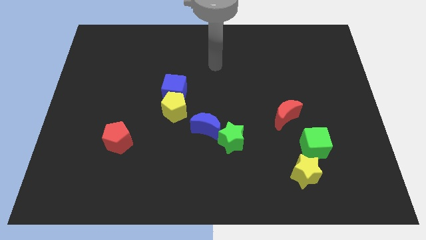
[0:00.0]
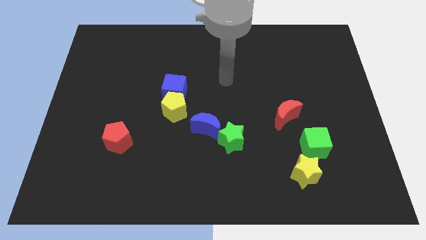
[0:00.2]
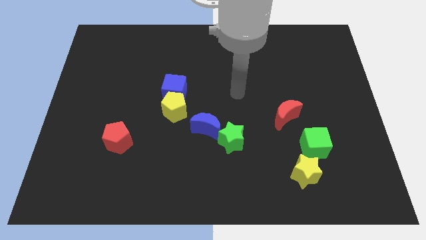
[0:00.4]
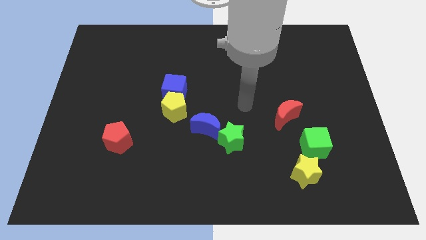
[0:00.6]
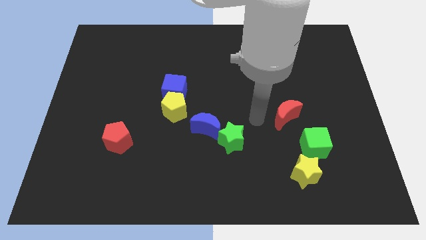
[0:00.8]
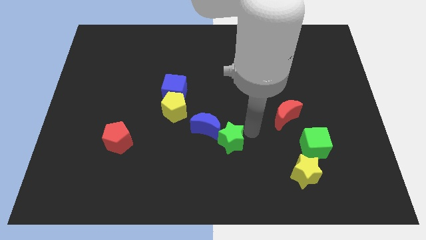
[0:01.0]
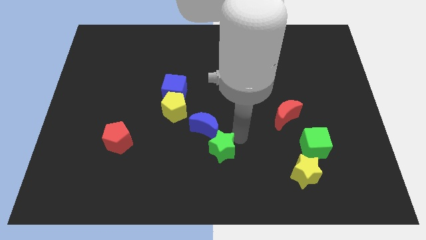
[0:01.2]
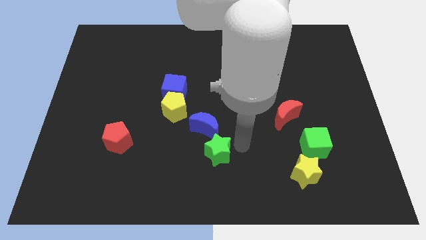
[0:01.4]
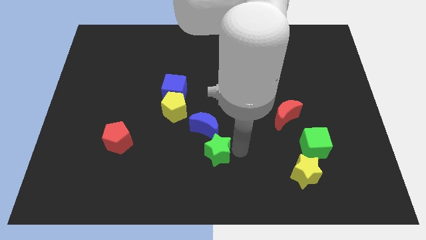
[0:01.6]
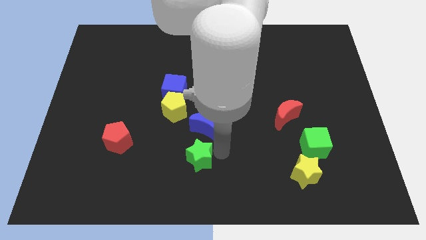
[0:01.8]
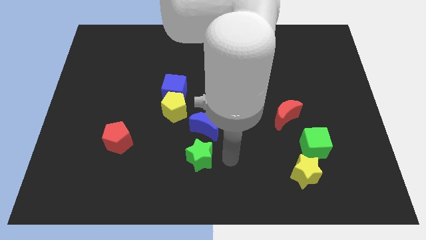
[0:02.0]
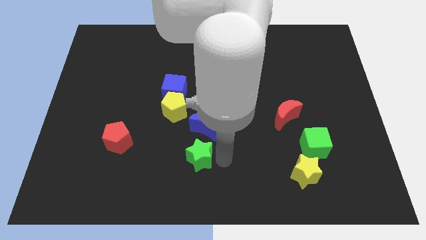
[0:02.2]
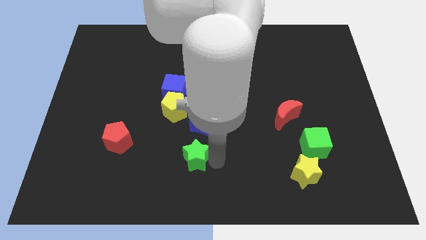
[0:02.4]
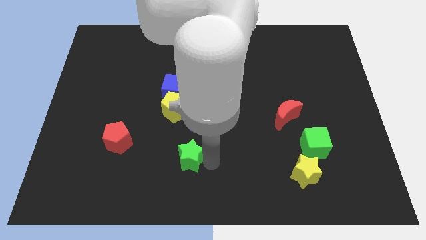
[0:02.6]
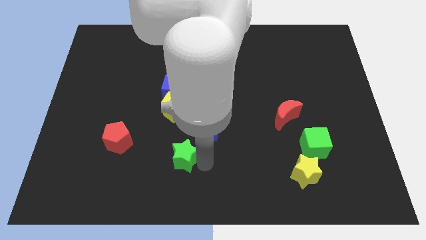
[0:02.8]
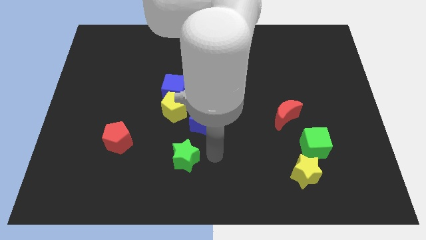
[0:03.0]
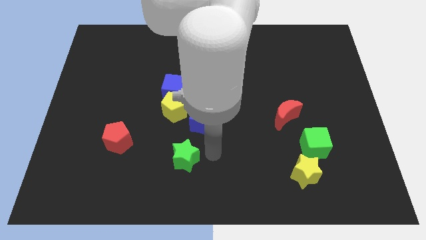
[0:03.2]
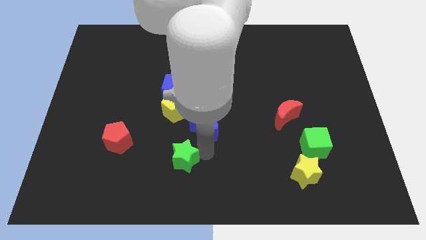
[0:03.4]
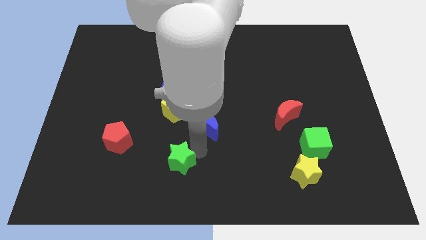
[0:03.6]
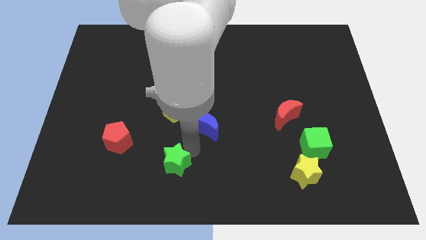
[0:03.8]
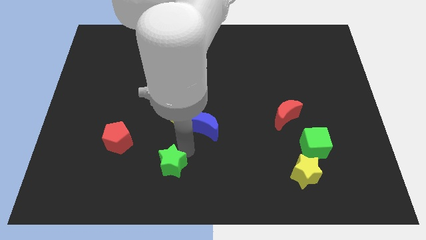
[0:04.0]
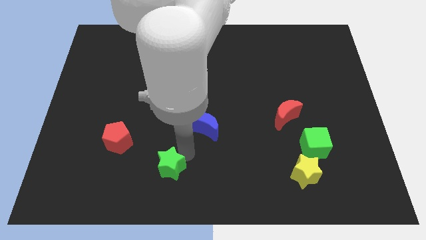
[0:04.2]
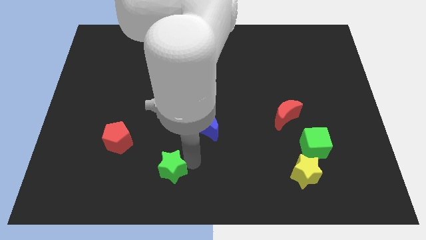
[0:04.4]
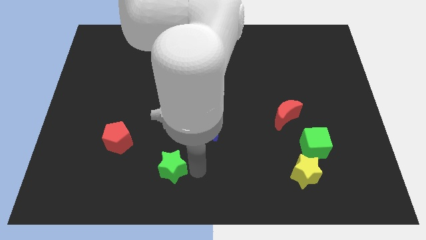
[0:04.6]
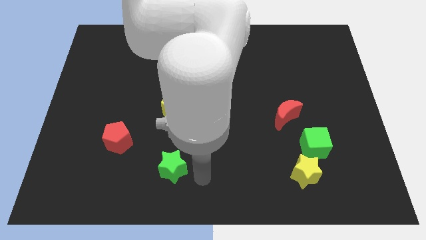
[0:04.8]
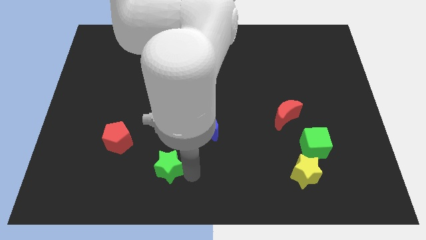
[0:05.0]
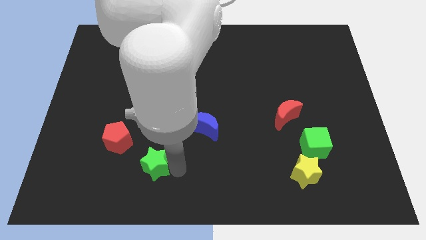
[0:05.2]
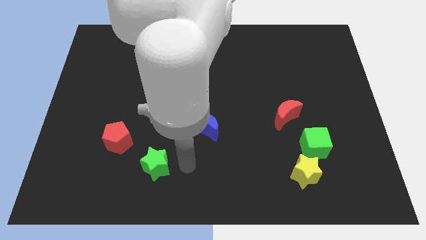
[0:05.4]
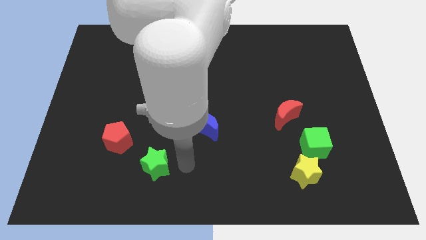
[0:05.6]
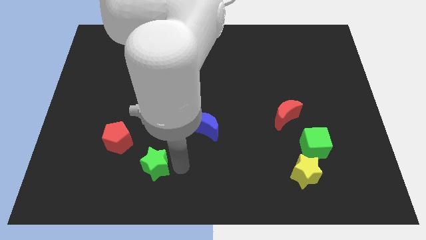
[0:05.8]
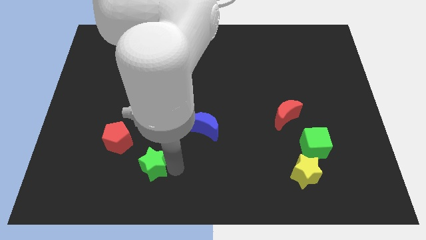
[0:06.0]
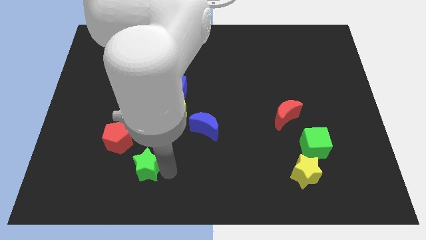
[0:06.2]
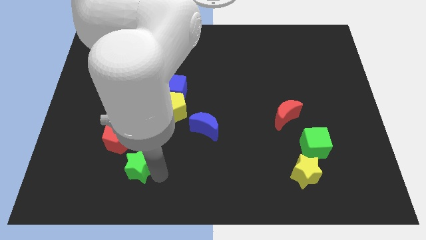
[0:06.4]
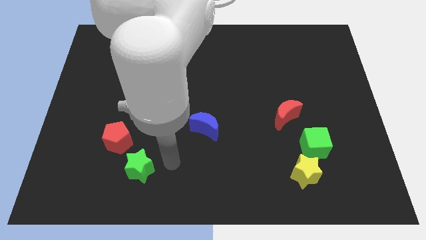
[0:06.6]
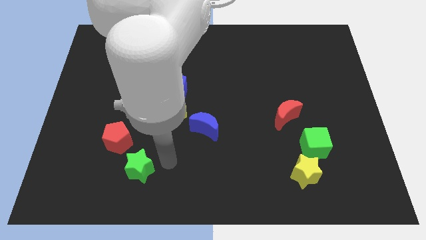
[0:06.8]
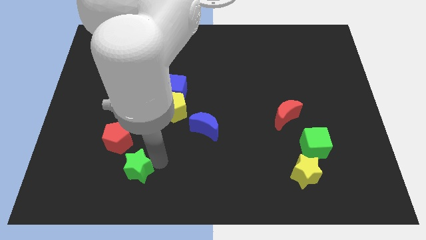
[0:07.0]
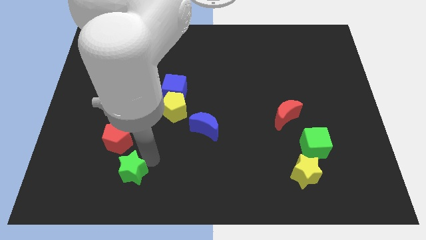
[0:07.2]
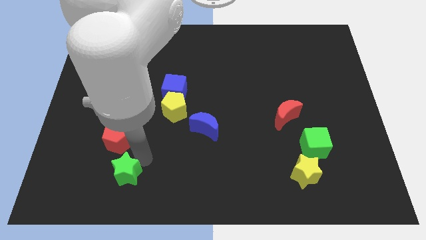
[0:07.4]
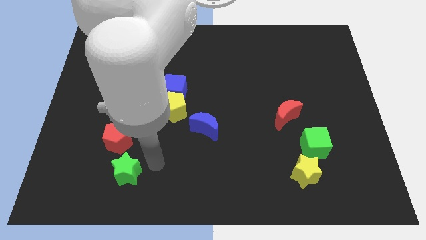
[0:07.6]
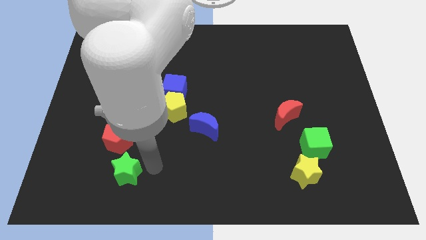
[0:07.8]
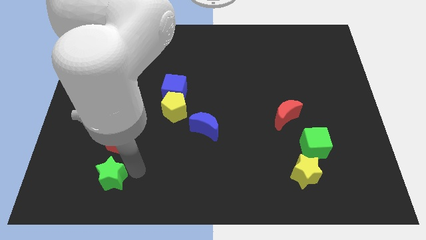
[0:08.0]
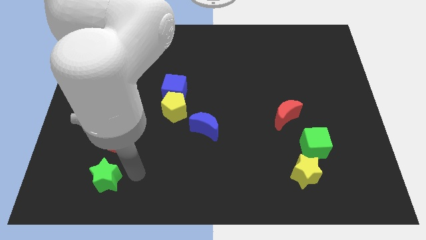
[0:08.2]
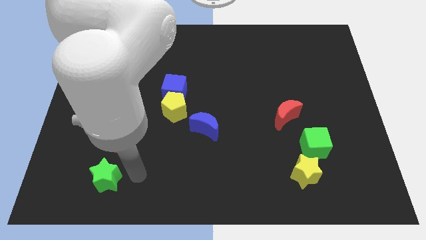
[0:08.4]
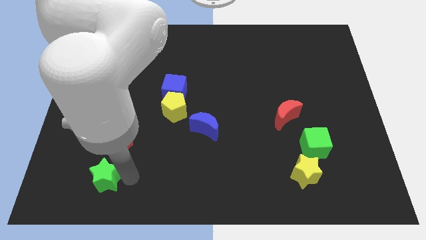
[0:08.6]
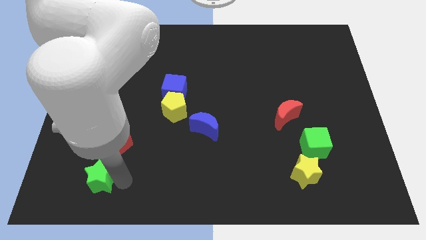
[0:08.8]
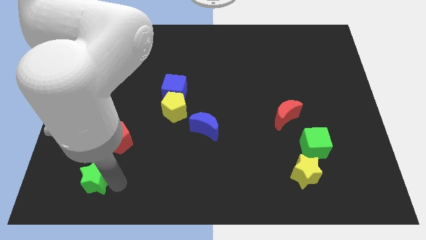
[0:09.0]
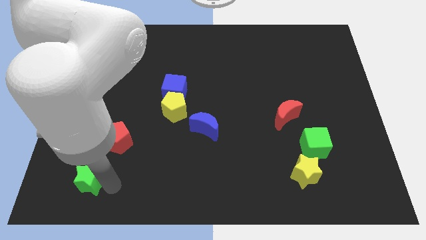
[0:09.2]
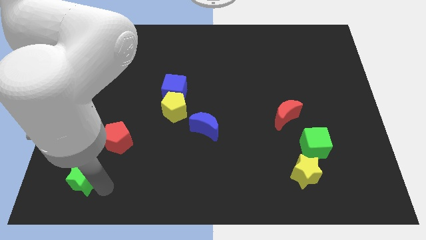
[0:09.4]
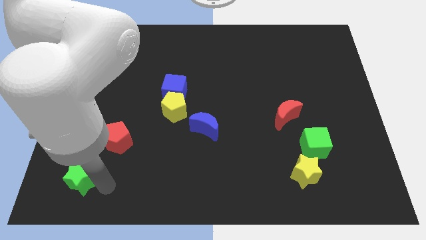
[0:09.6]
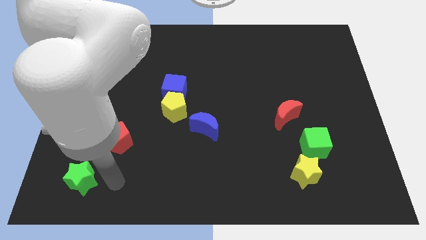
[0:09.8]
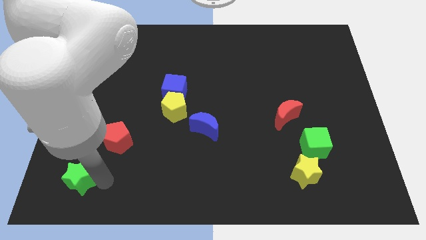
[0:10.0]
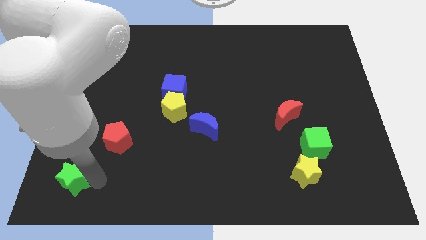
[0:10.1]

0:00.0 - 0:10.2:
slide the green star to the bottom left corner

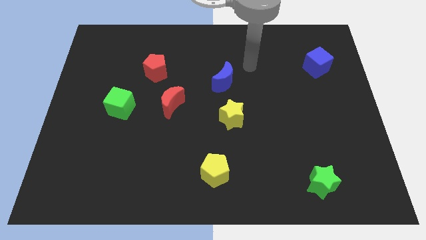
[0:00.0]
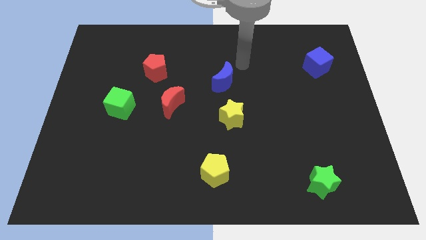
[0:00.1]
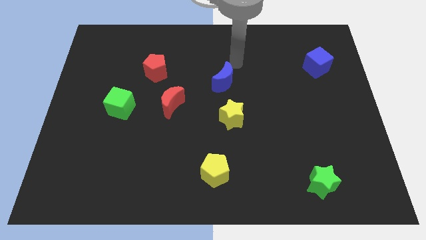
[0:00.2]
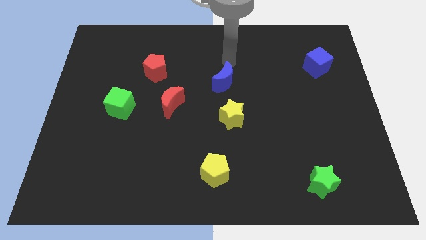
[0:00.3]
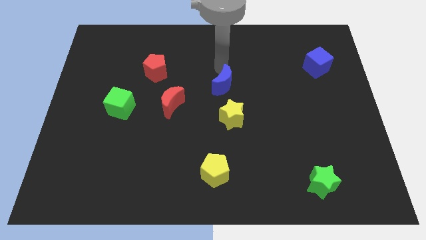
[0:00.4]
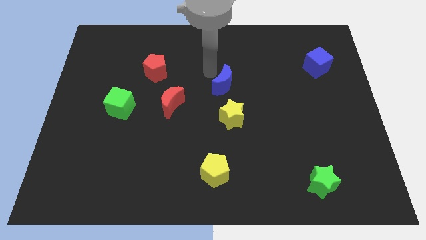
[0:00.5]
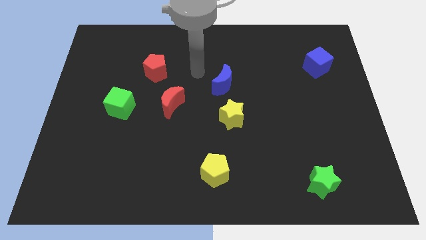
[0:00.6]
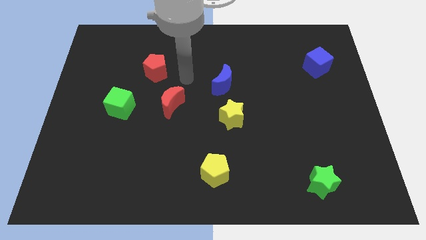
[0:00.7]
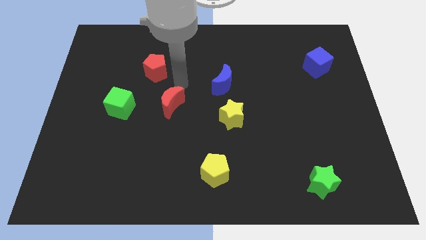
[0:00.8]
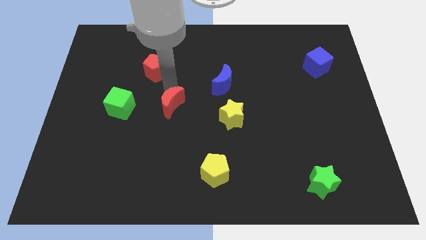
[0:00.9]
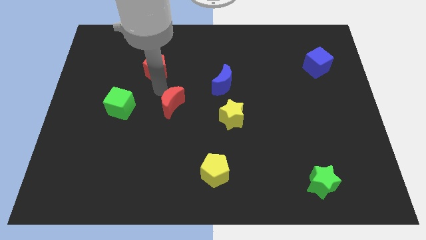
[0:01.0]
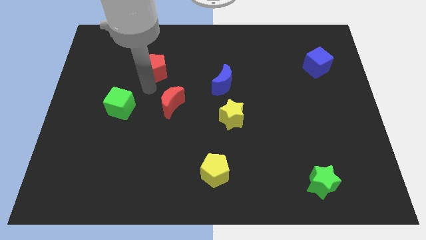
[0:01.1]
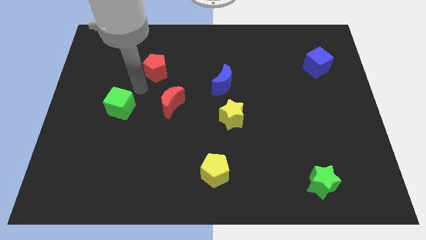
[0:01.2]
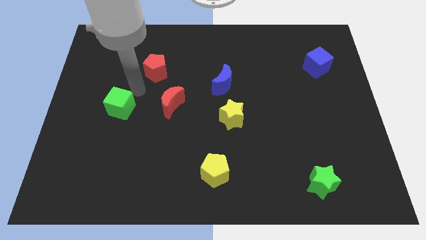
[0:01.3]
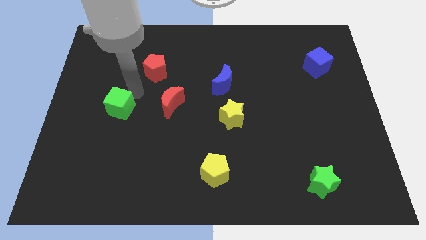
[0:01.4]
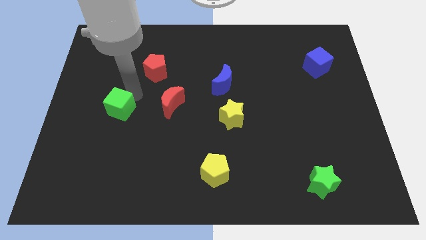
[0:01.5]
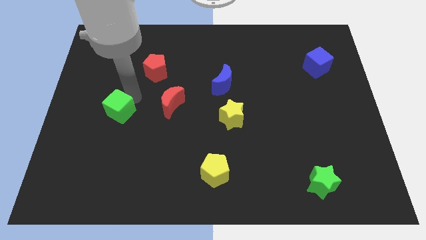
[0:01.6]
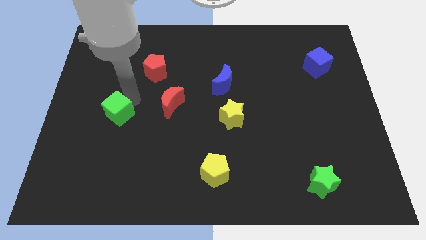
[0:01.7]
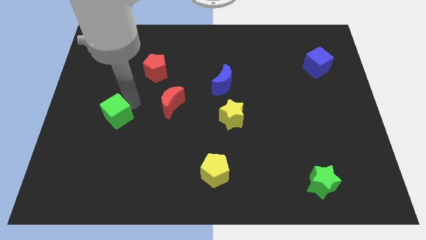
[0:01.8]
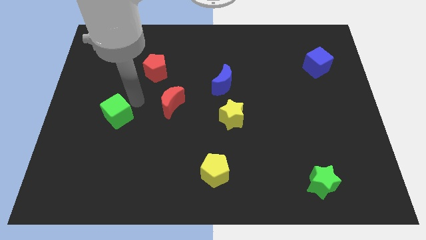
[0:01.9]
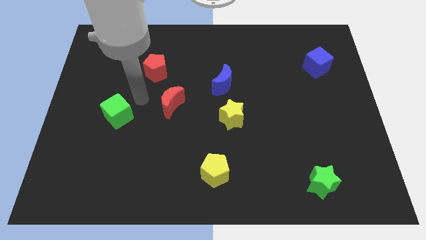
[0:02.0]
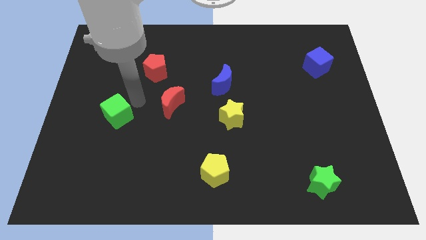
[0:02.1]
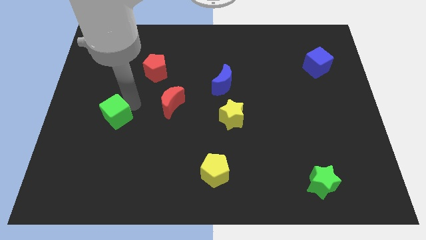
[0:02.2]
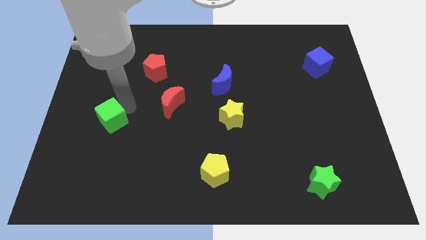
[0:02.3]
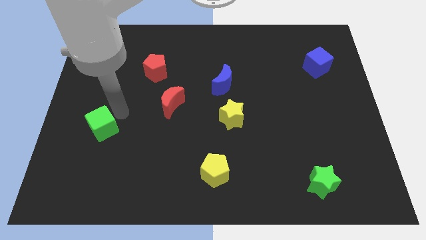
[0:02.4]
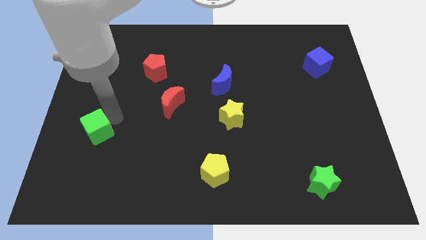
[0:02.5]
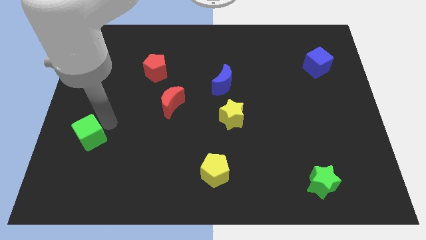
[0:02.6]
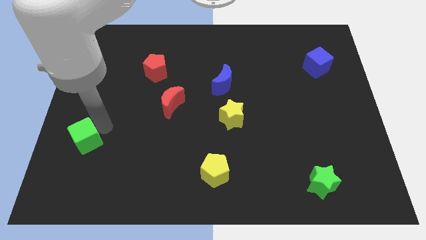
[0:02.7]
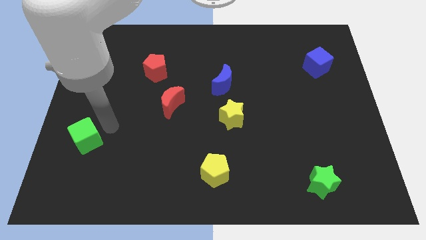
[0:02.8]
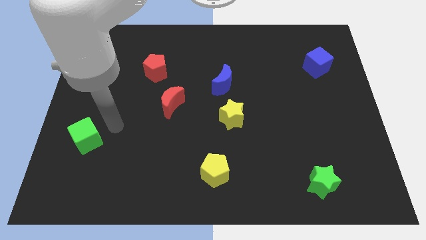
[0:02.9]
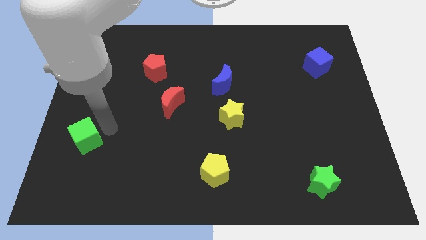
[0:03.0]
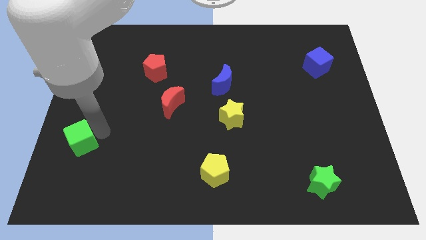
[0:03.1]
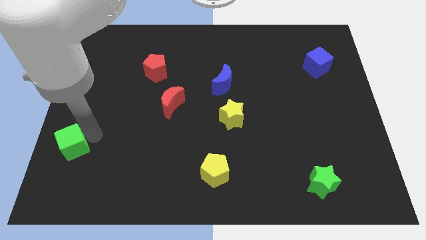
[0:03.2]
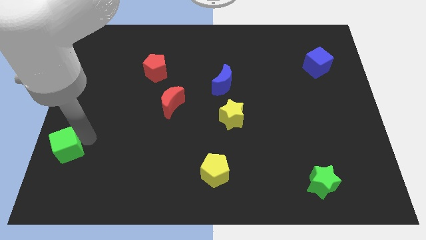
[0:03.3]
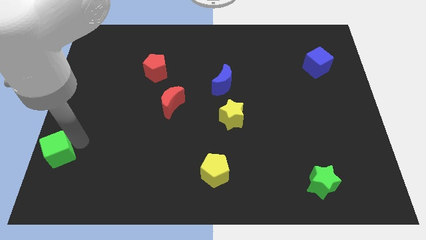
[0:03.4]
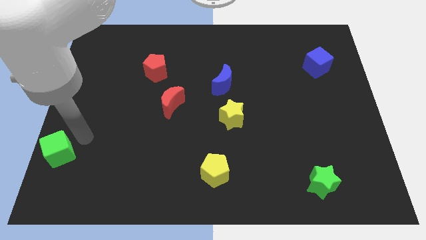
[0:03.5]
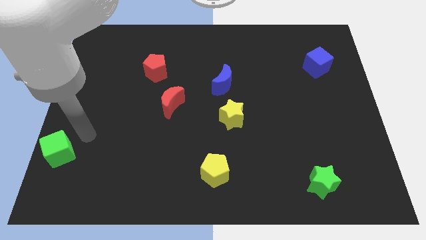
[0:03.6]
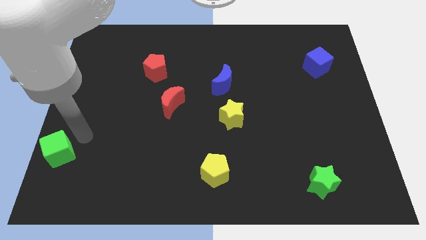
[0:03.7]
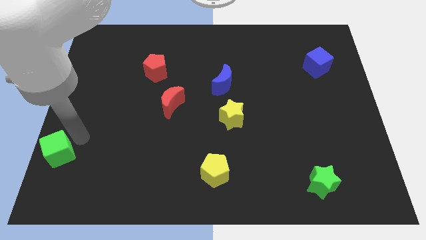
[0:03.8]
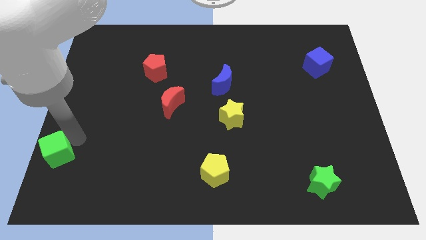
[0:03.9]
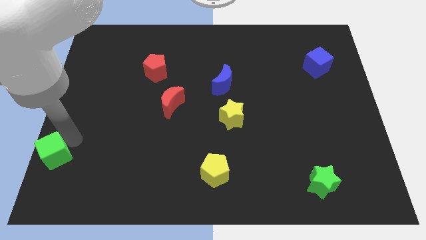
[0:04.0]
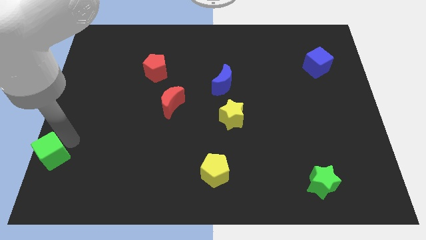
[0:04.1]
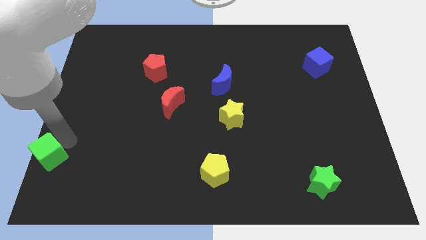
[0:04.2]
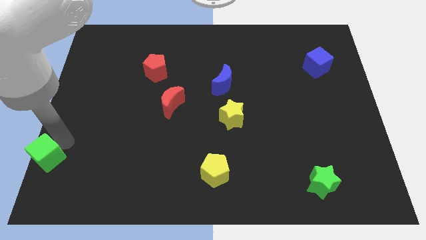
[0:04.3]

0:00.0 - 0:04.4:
slide the green cube to the lower left corner
